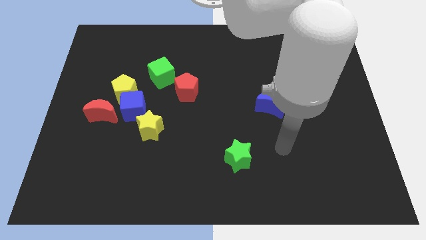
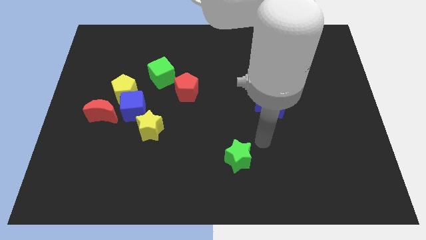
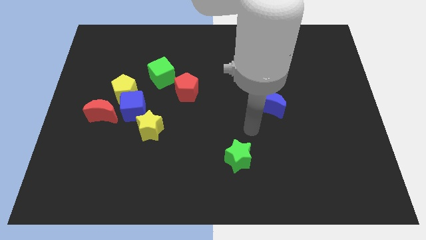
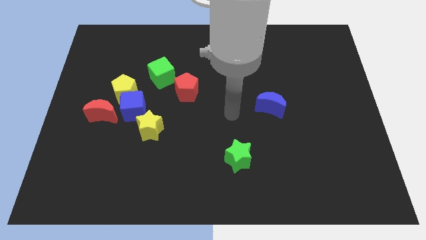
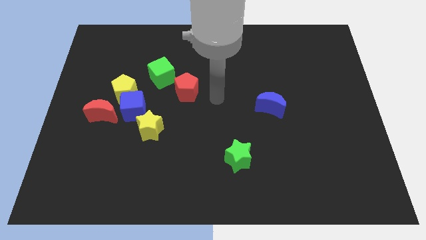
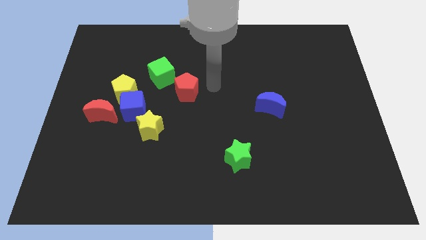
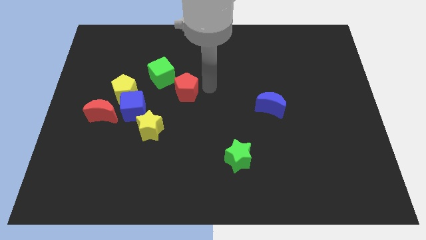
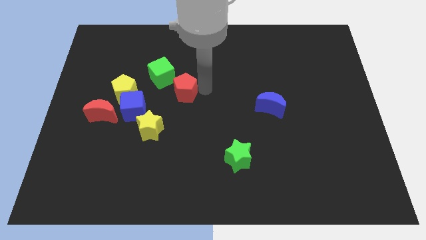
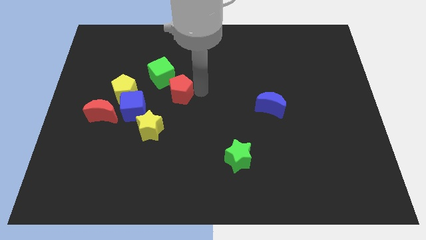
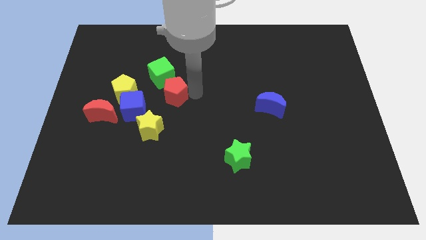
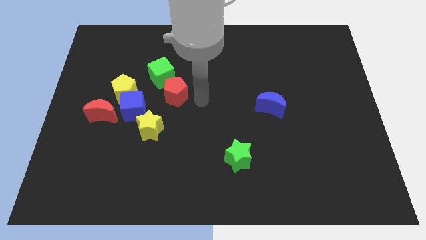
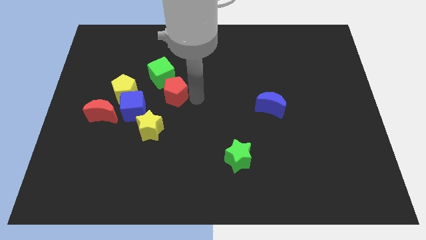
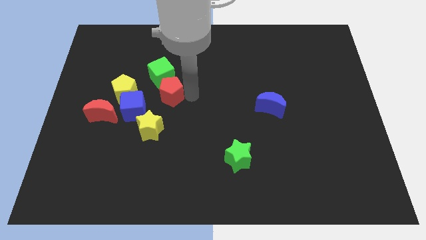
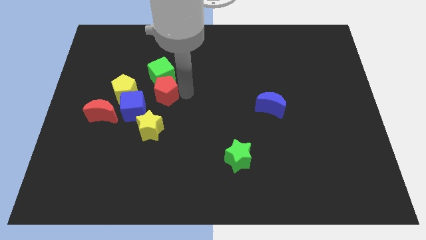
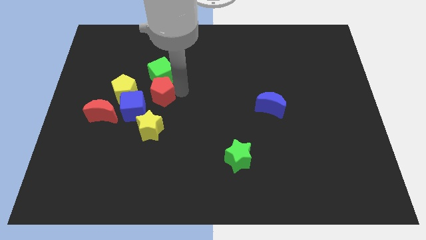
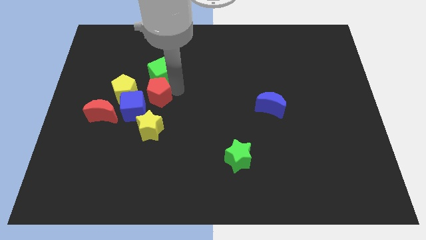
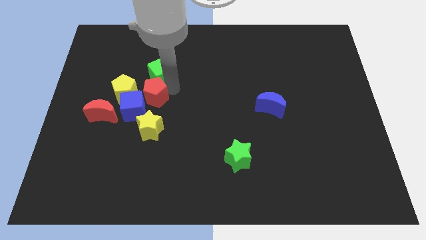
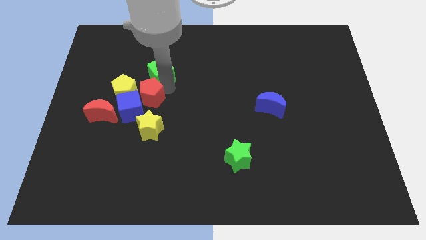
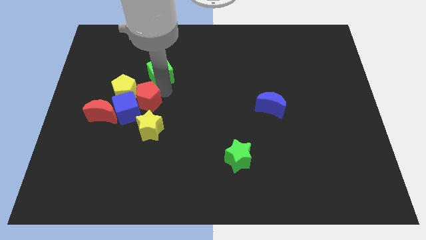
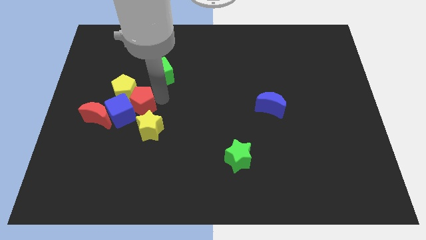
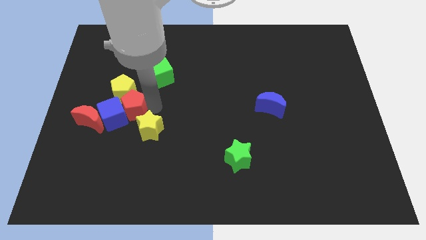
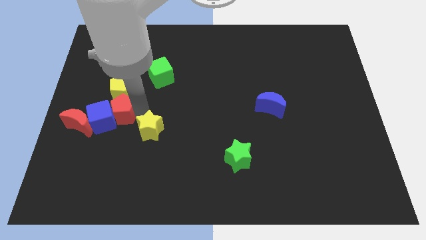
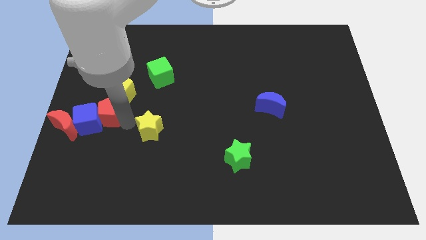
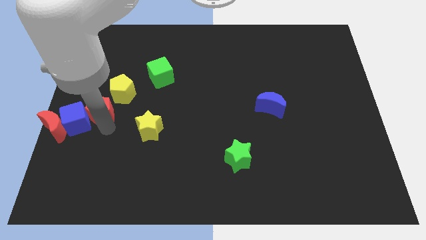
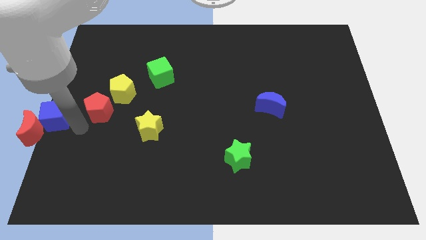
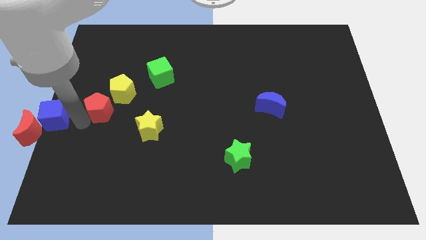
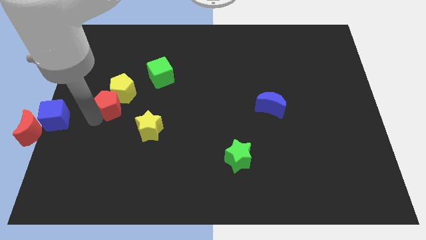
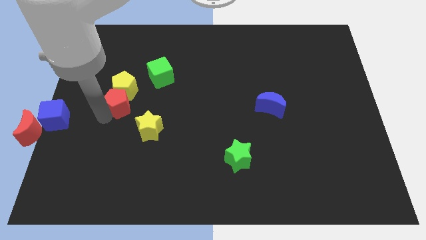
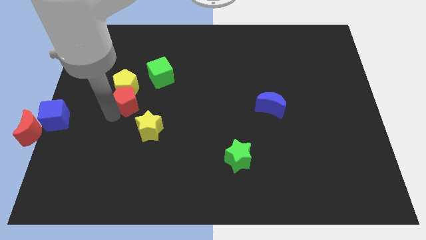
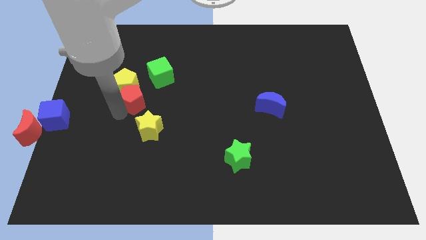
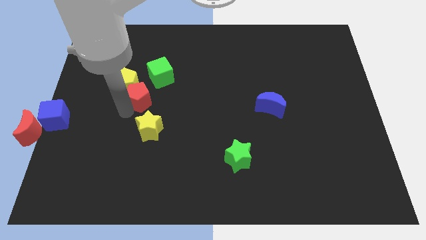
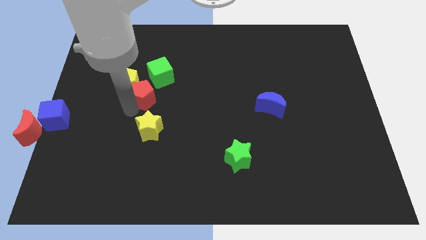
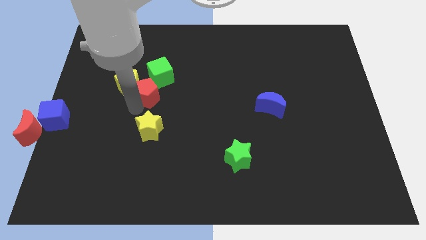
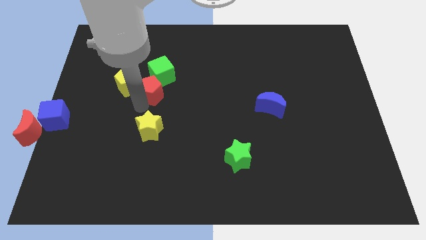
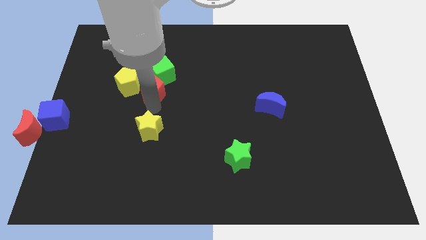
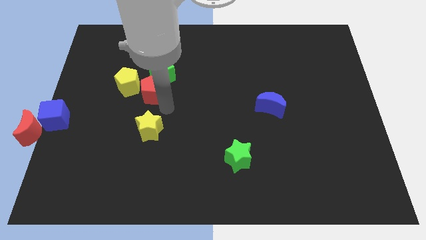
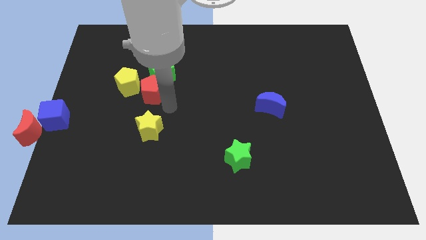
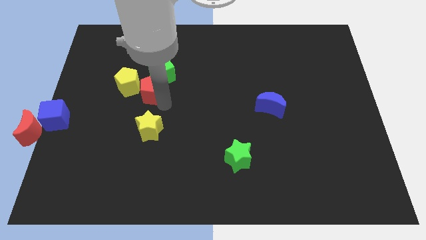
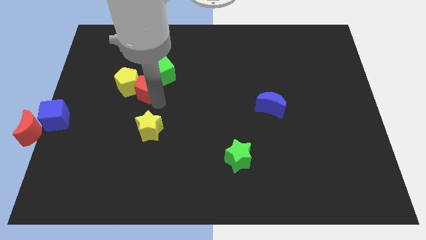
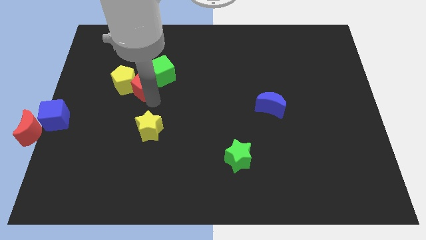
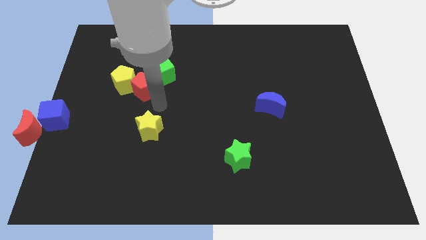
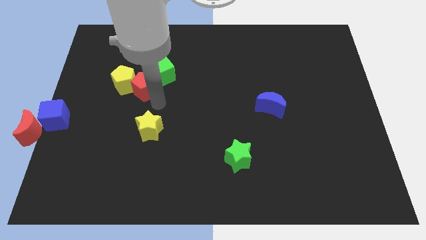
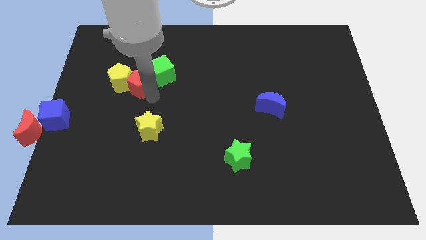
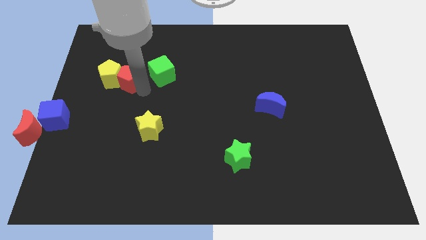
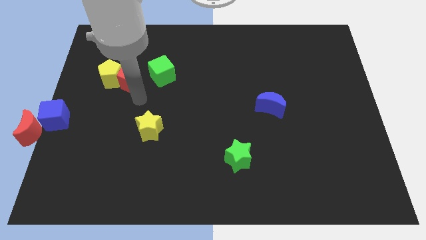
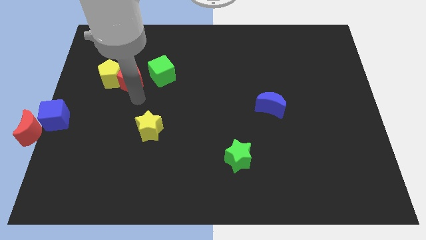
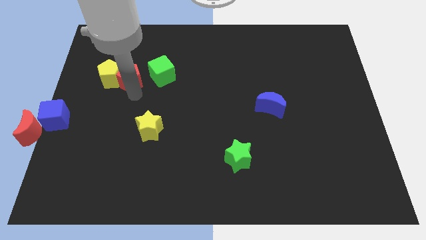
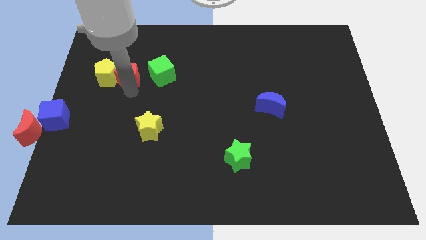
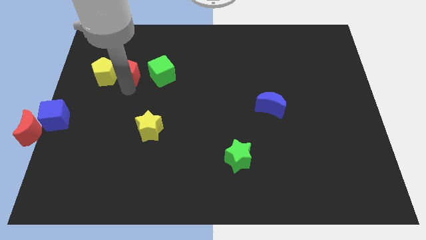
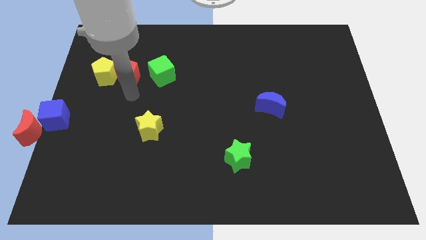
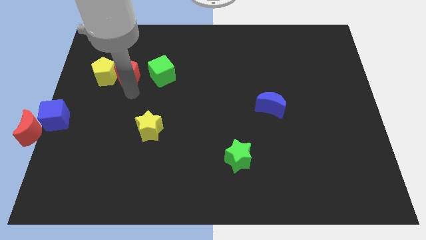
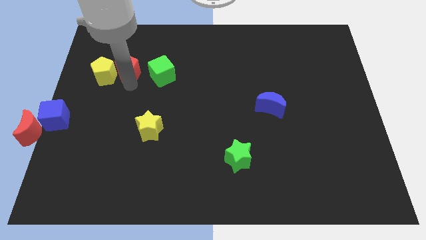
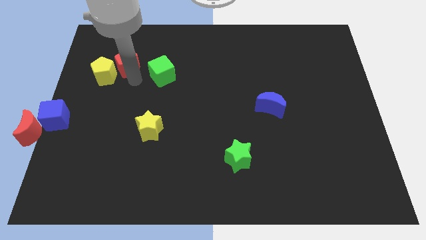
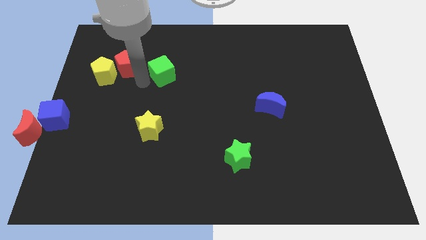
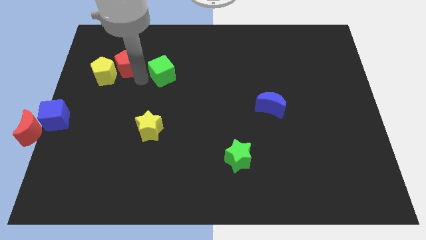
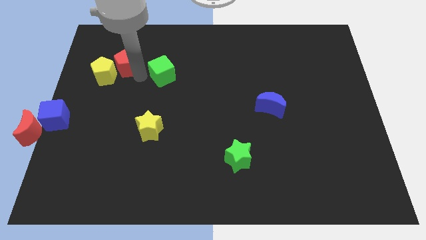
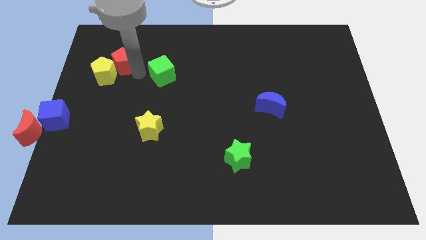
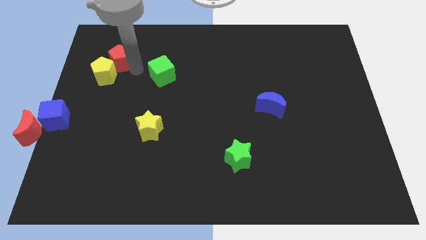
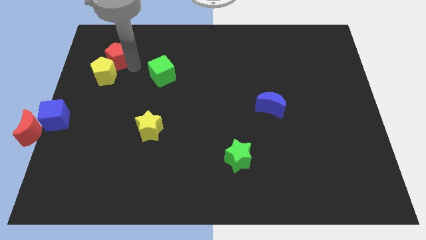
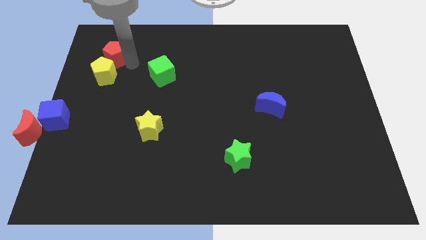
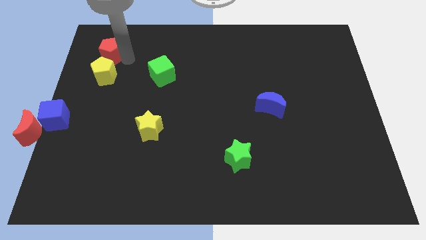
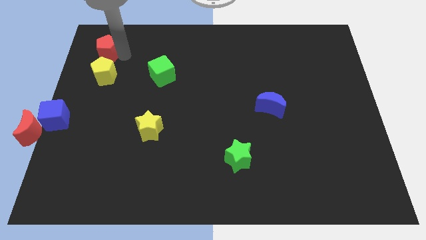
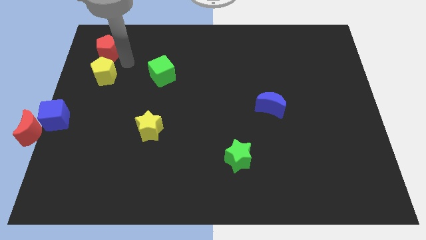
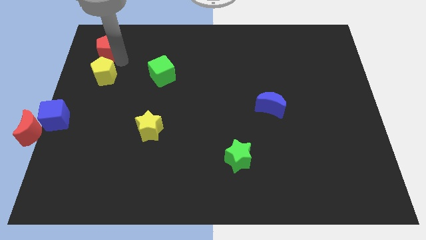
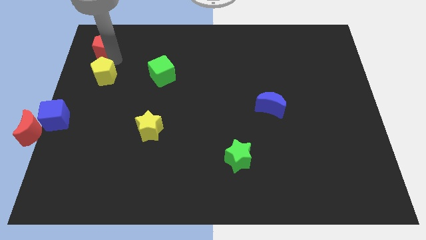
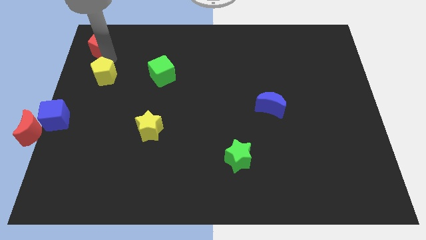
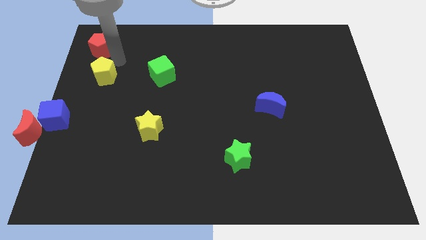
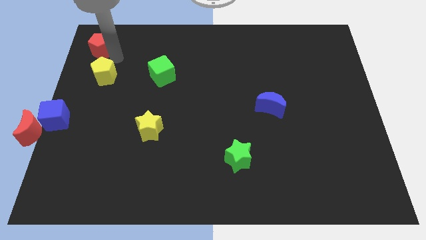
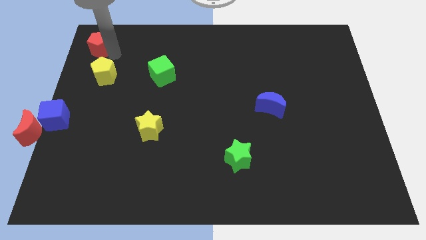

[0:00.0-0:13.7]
push the red pentagon to the top left of the board
